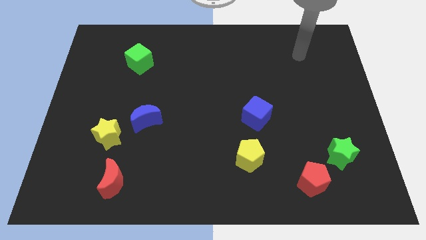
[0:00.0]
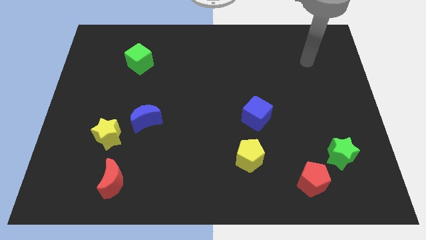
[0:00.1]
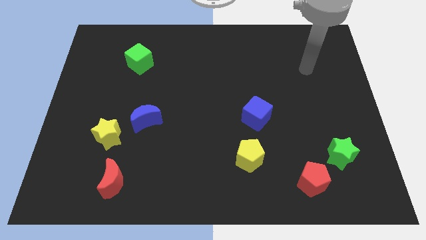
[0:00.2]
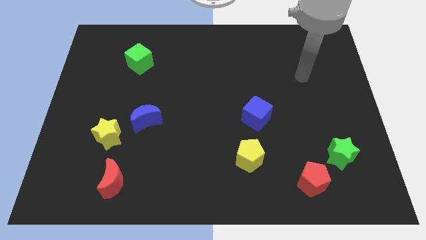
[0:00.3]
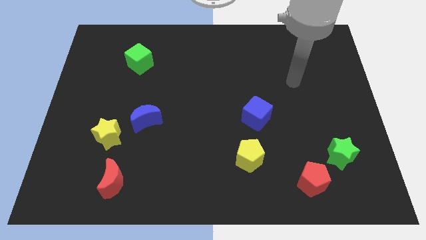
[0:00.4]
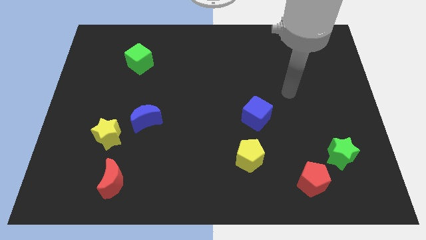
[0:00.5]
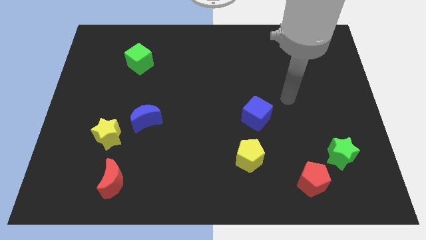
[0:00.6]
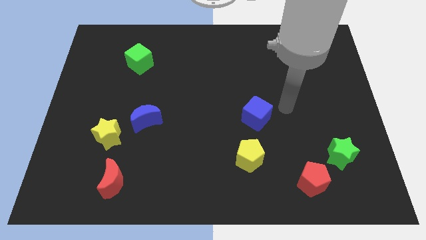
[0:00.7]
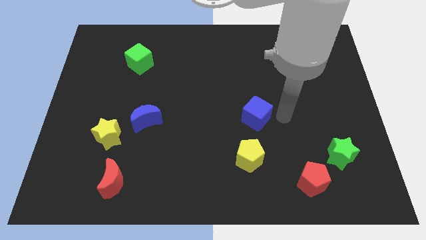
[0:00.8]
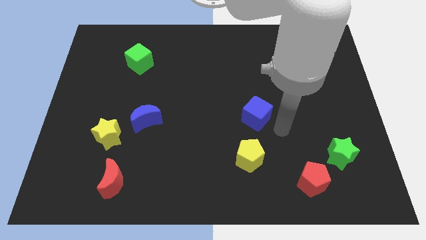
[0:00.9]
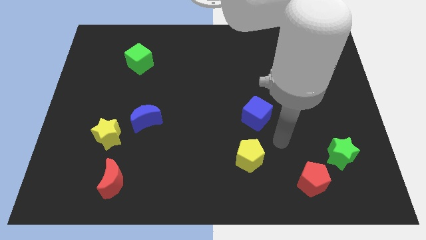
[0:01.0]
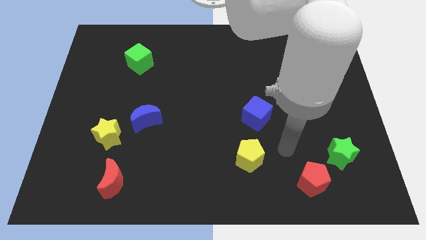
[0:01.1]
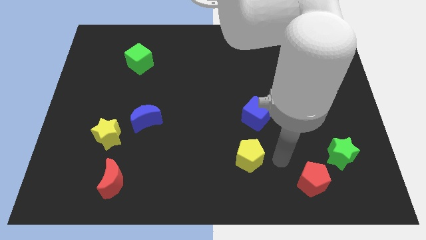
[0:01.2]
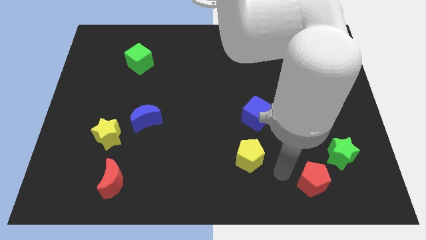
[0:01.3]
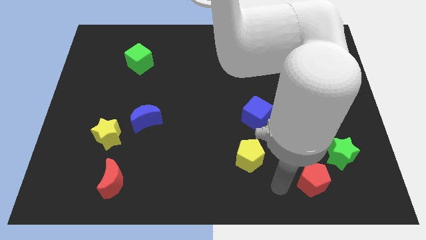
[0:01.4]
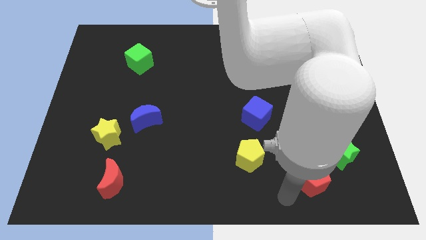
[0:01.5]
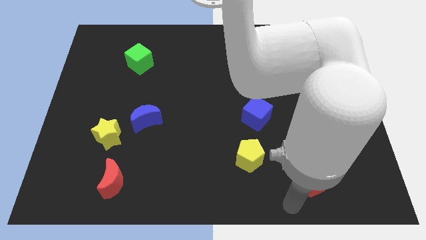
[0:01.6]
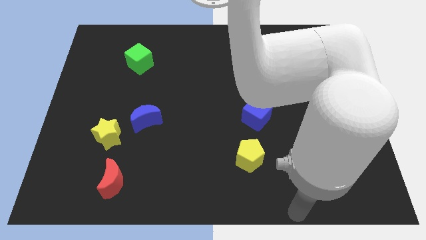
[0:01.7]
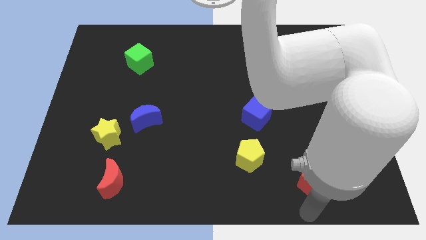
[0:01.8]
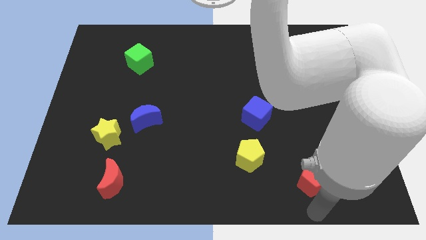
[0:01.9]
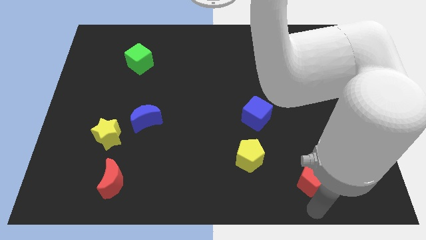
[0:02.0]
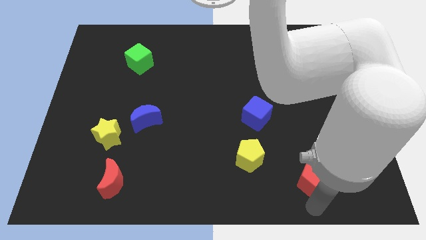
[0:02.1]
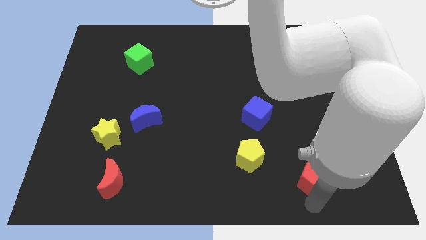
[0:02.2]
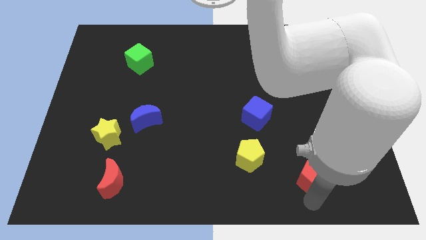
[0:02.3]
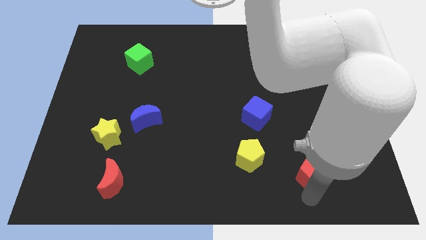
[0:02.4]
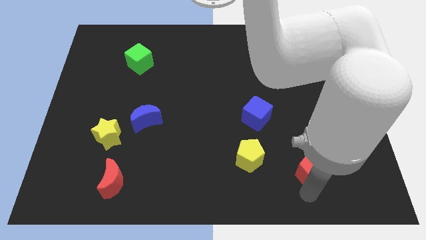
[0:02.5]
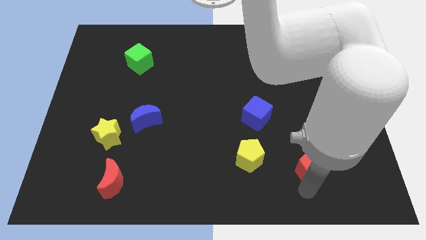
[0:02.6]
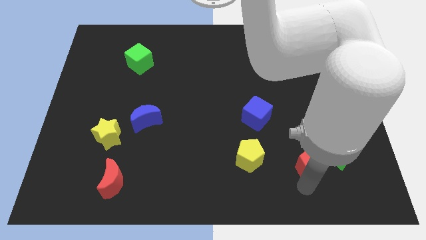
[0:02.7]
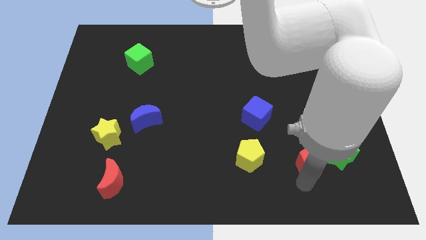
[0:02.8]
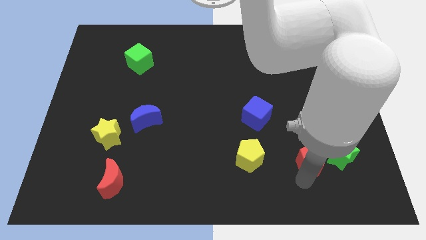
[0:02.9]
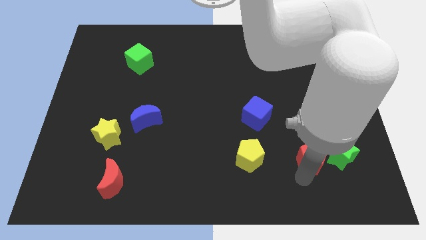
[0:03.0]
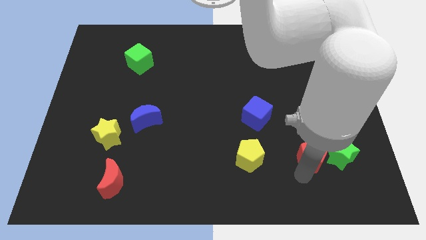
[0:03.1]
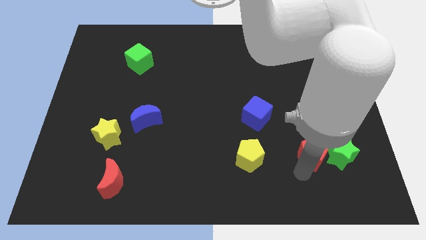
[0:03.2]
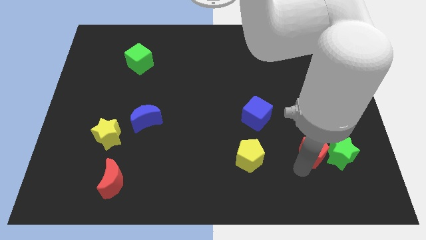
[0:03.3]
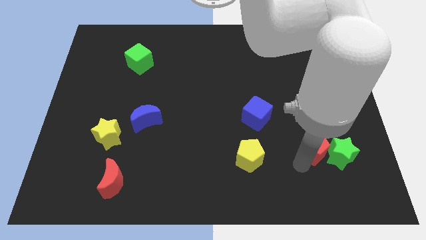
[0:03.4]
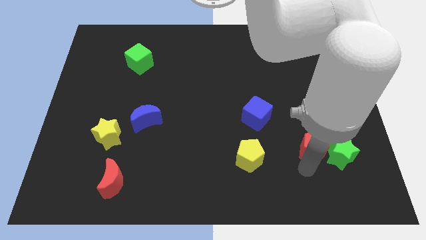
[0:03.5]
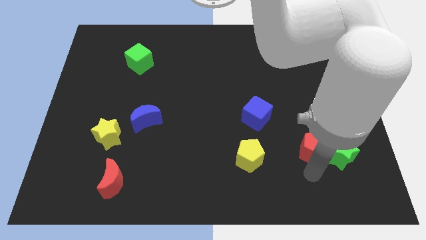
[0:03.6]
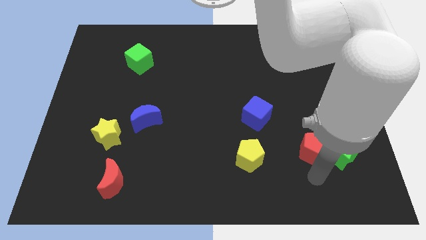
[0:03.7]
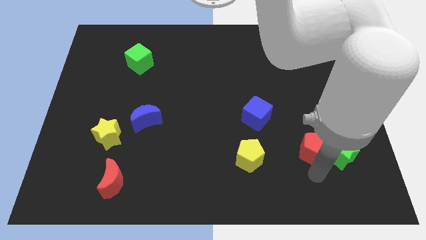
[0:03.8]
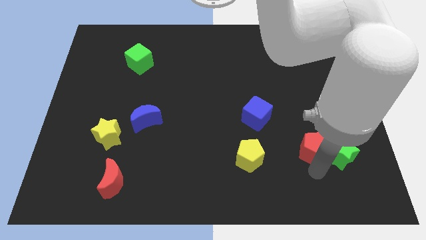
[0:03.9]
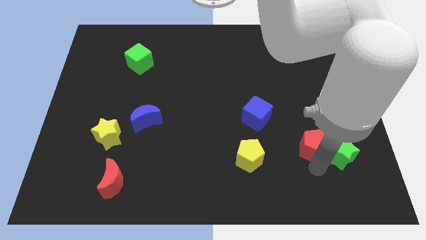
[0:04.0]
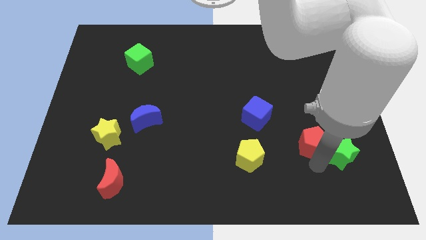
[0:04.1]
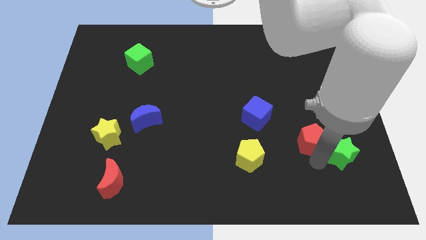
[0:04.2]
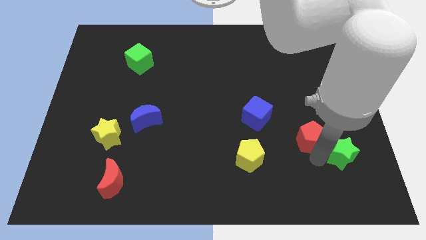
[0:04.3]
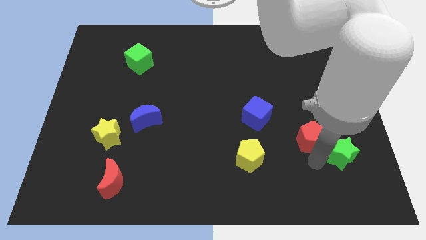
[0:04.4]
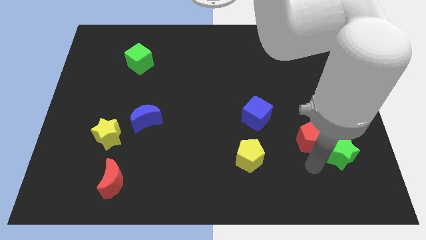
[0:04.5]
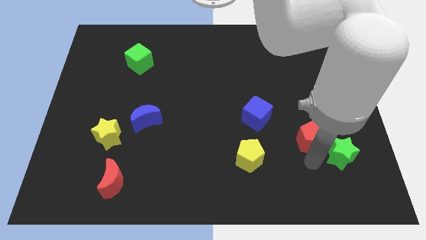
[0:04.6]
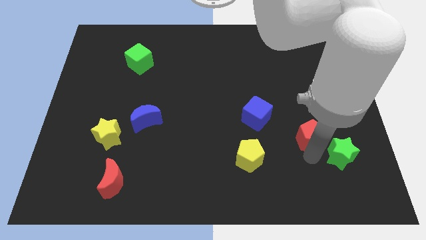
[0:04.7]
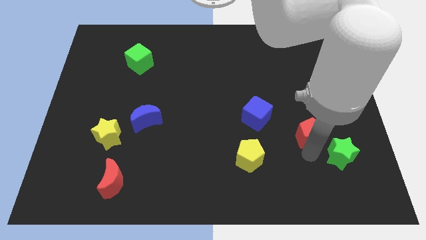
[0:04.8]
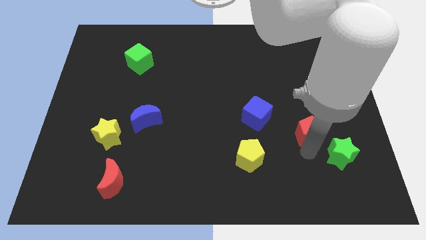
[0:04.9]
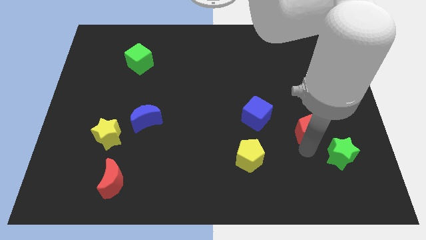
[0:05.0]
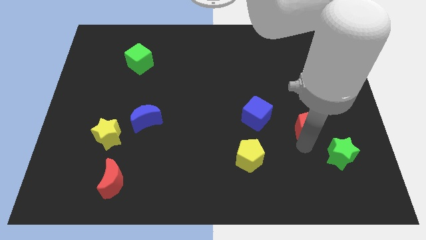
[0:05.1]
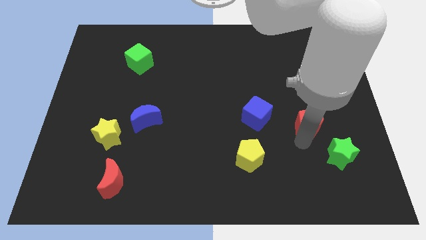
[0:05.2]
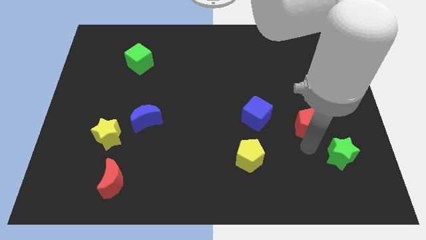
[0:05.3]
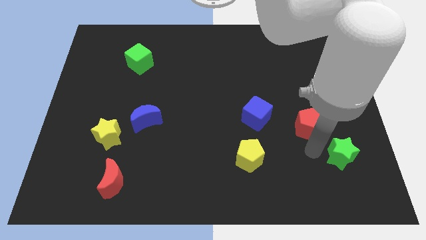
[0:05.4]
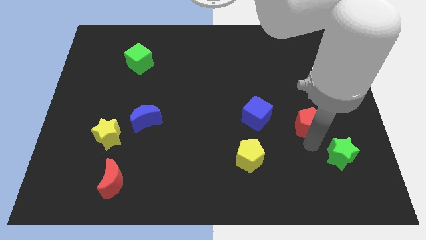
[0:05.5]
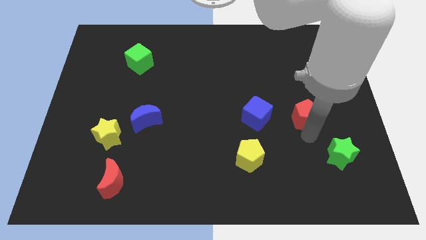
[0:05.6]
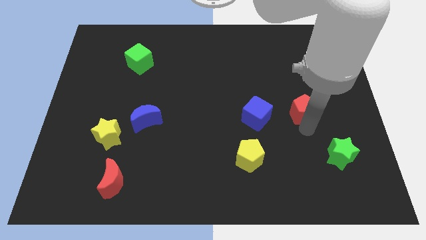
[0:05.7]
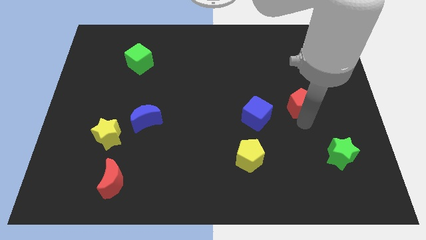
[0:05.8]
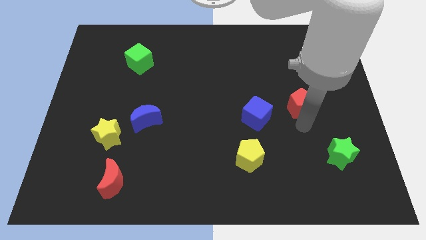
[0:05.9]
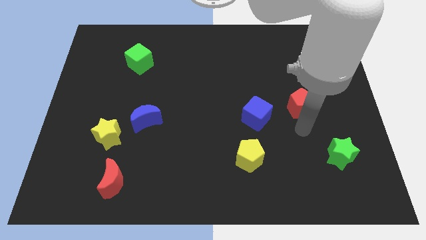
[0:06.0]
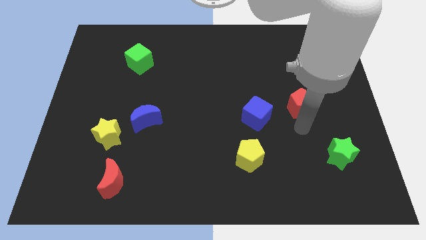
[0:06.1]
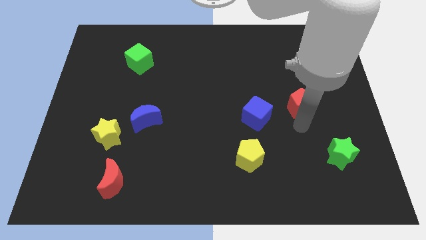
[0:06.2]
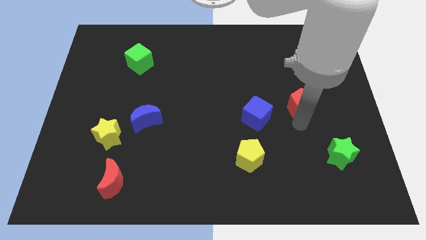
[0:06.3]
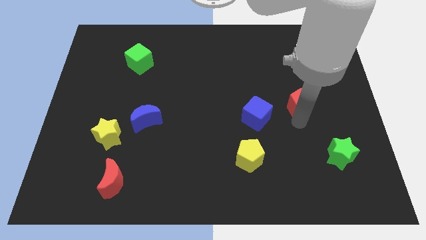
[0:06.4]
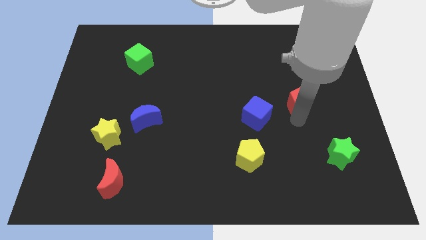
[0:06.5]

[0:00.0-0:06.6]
move the red pentagon up

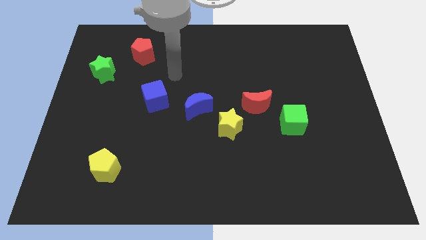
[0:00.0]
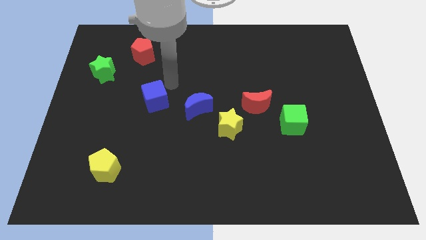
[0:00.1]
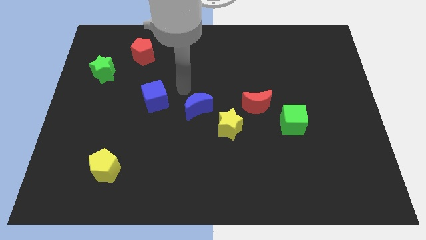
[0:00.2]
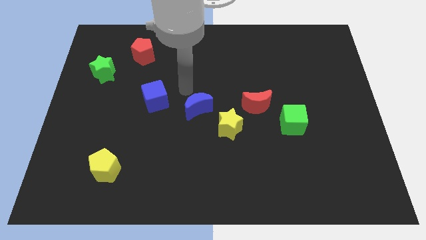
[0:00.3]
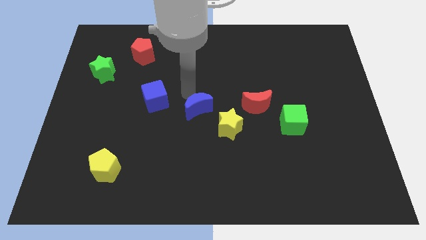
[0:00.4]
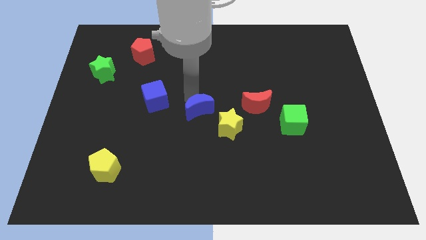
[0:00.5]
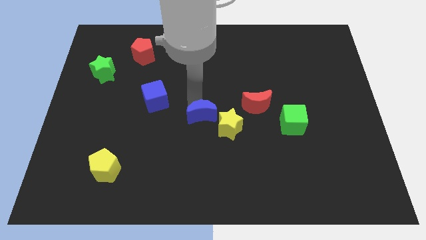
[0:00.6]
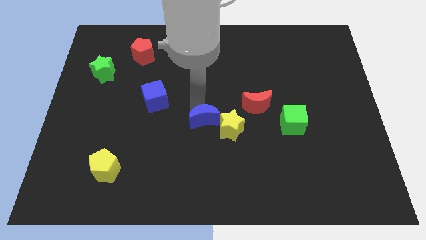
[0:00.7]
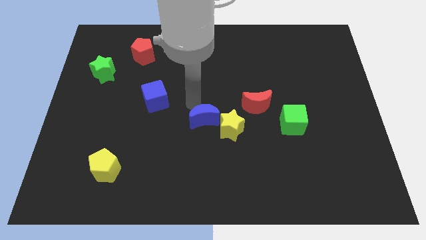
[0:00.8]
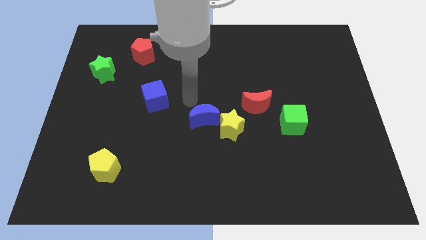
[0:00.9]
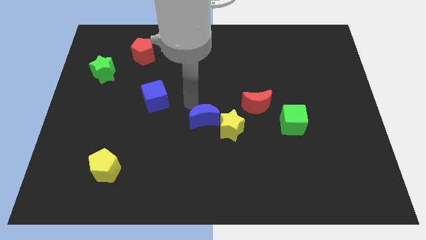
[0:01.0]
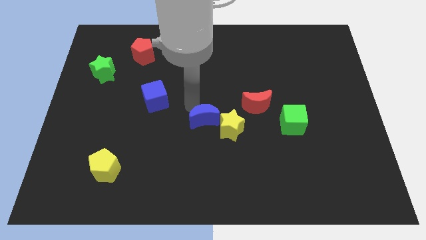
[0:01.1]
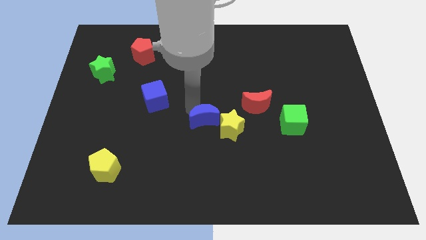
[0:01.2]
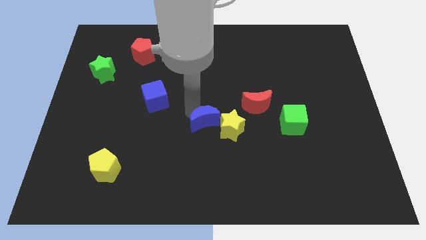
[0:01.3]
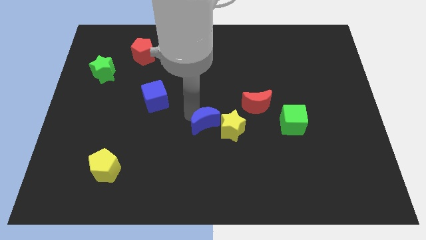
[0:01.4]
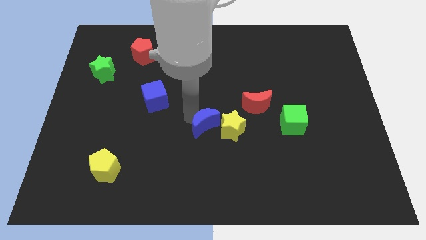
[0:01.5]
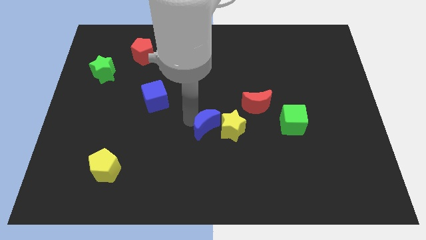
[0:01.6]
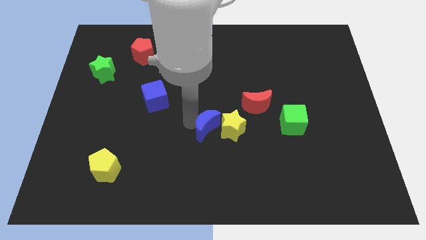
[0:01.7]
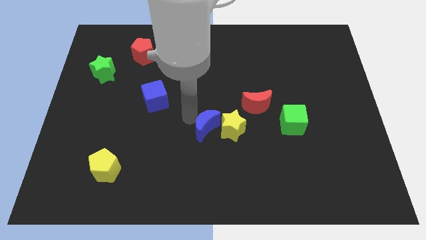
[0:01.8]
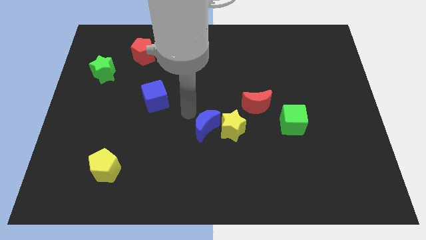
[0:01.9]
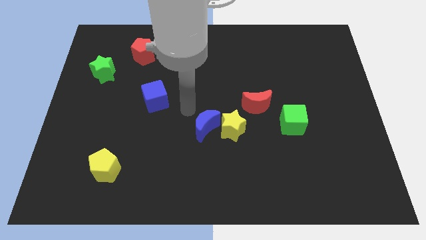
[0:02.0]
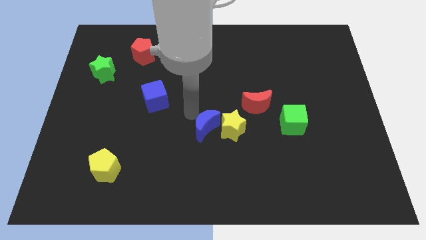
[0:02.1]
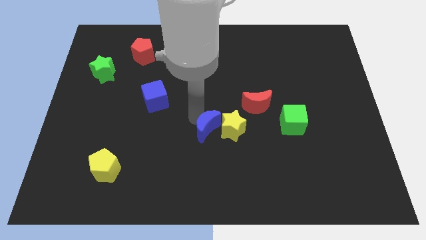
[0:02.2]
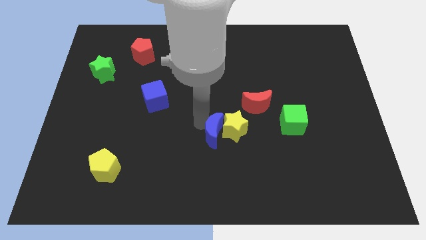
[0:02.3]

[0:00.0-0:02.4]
slide the blue moon down and then right somewhat
